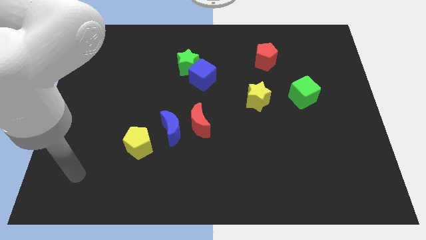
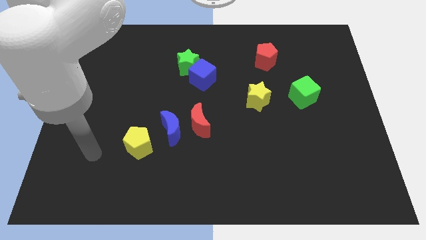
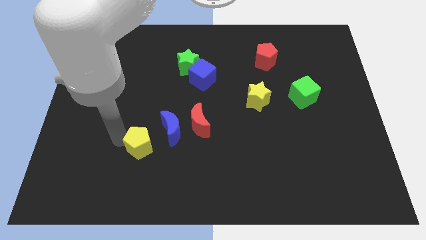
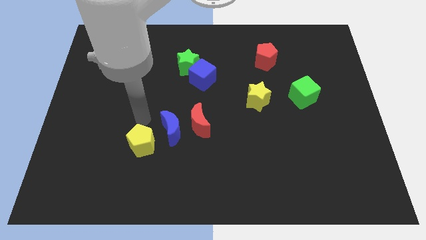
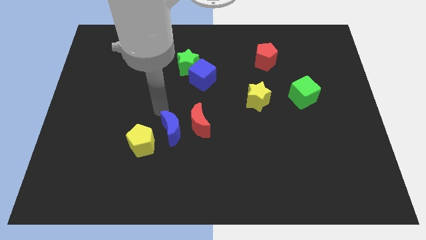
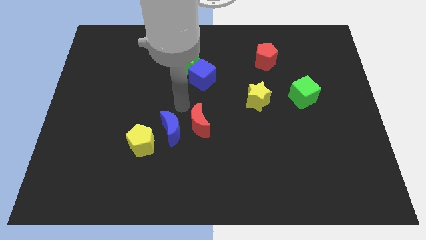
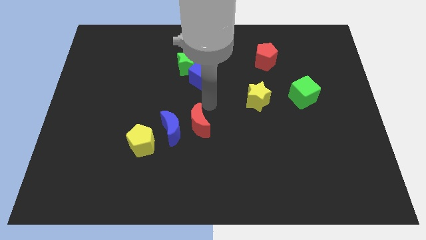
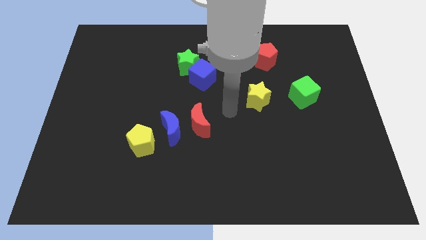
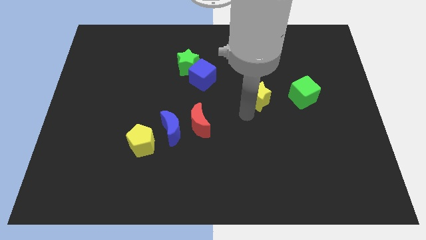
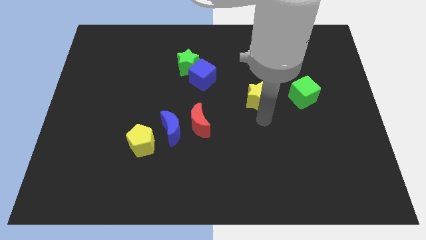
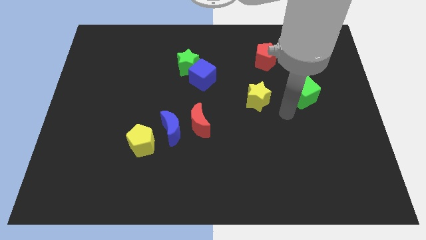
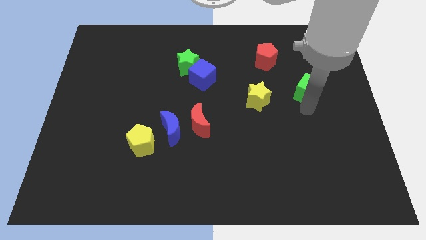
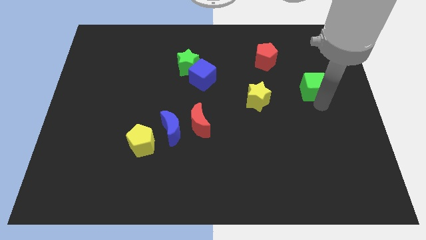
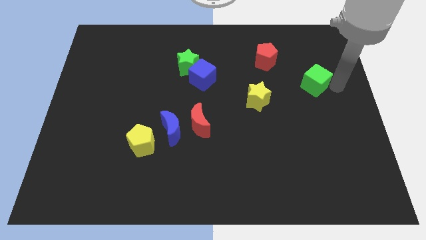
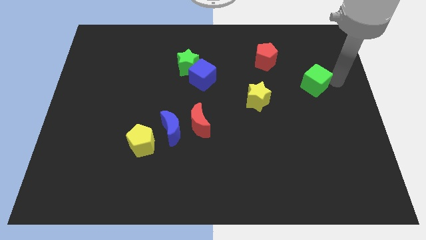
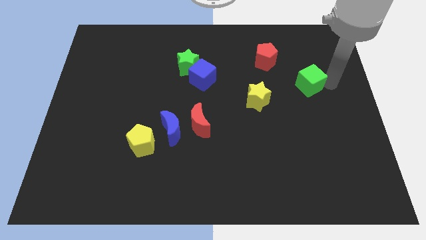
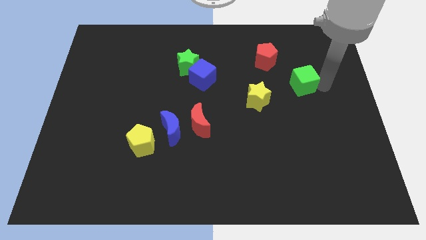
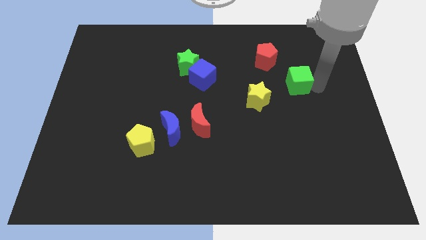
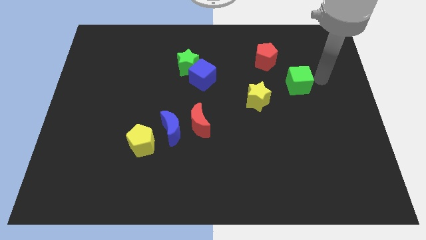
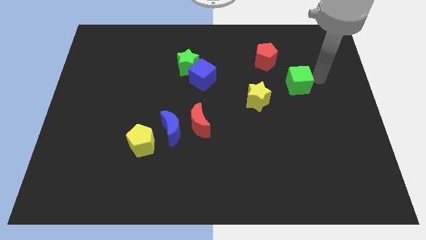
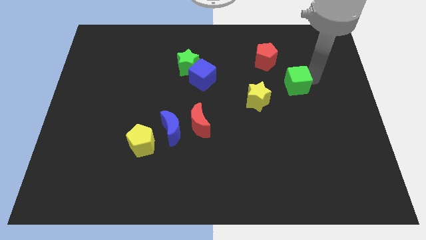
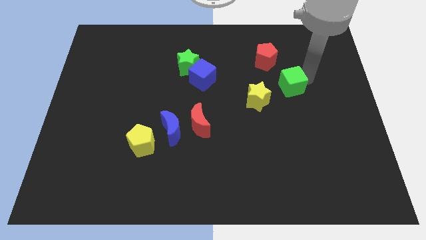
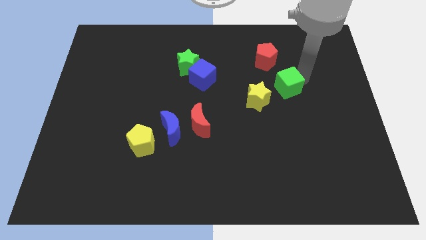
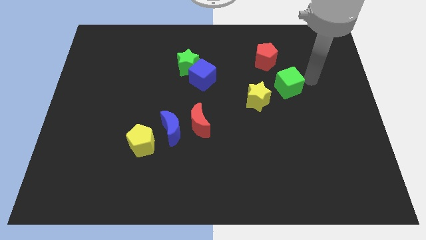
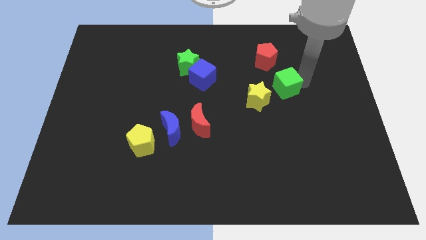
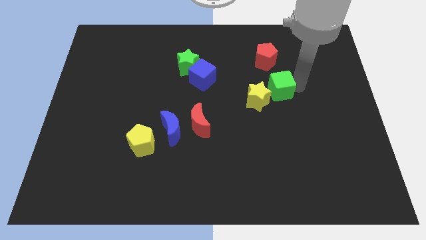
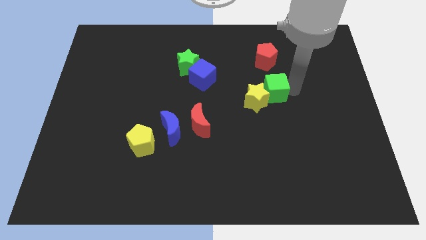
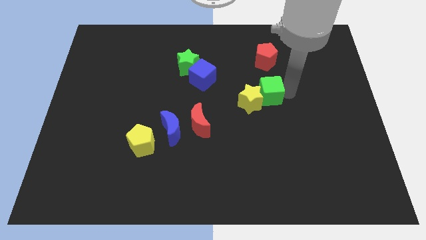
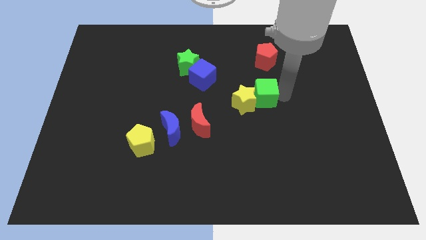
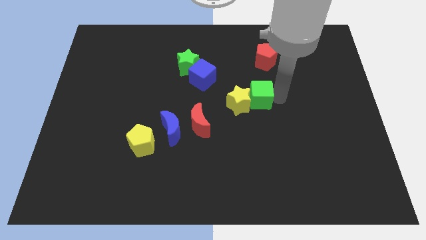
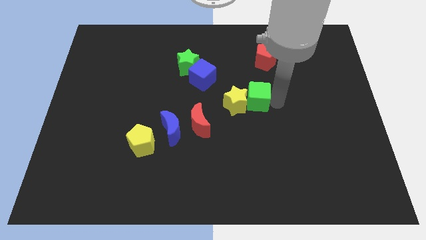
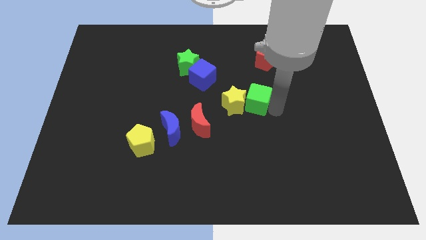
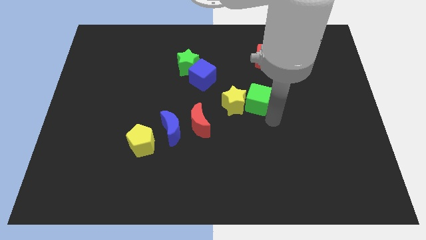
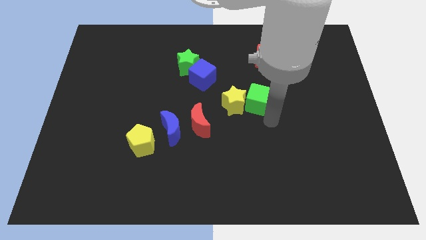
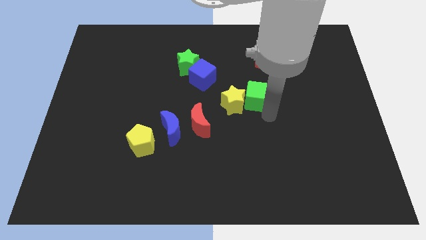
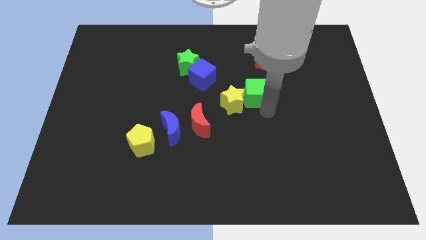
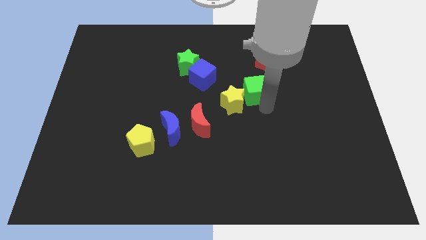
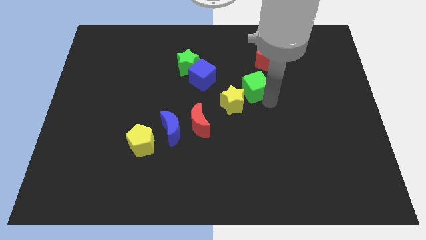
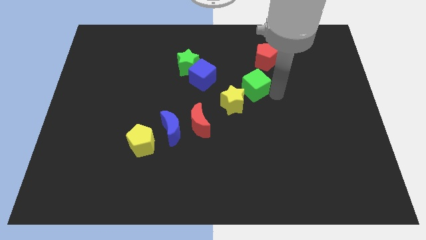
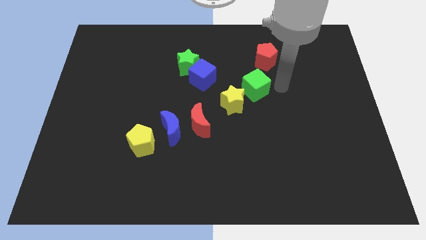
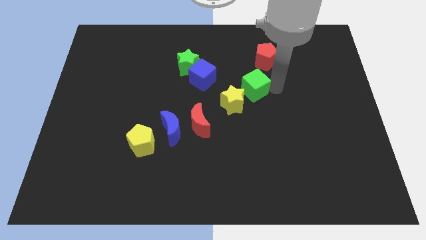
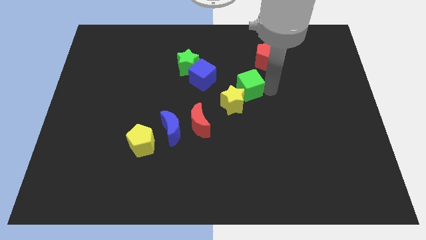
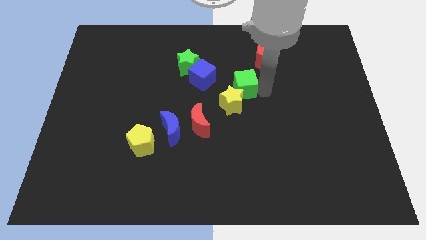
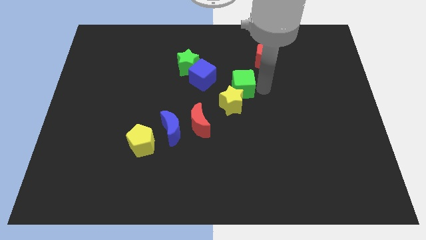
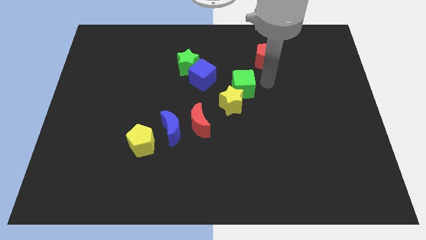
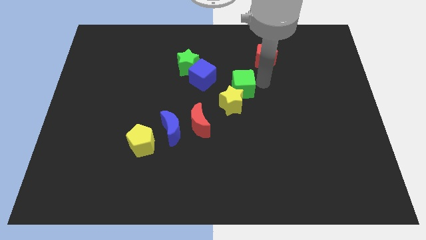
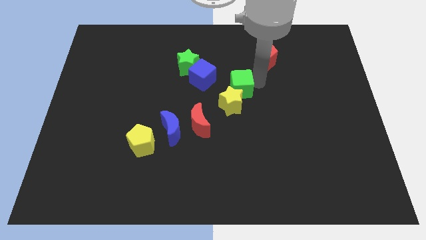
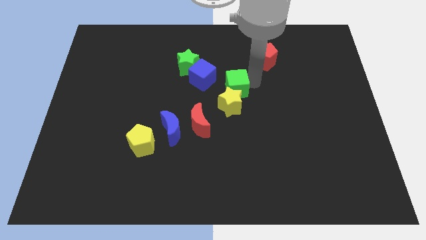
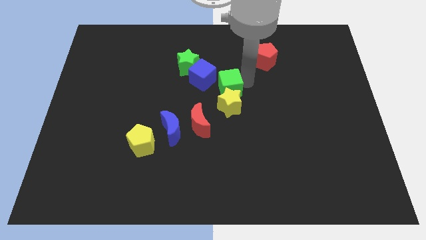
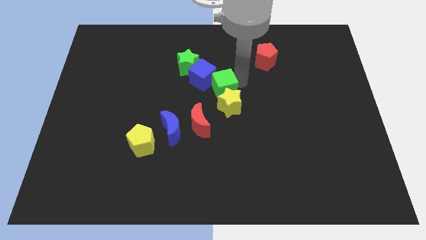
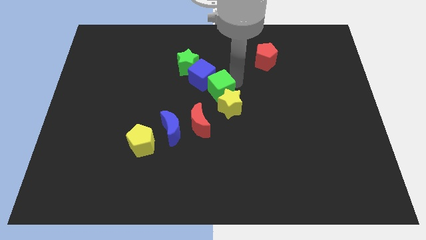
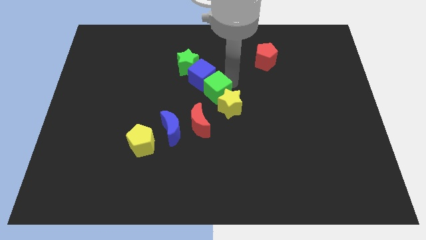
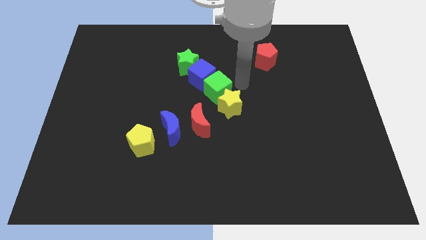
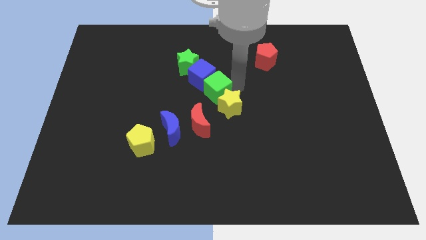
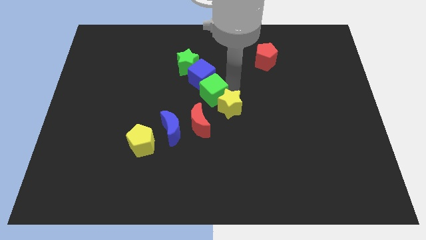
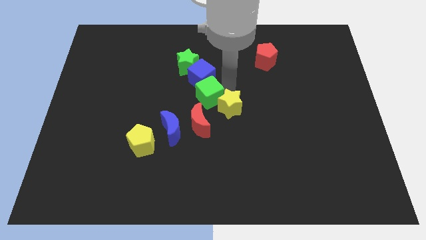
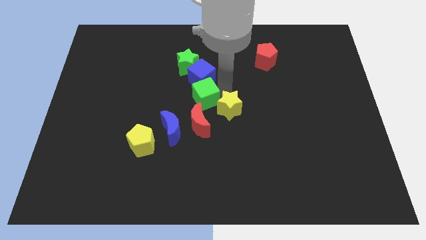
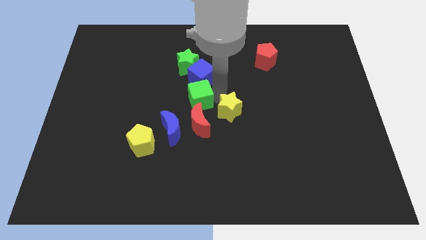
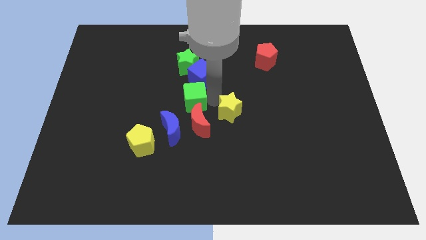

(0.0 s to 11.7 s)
slide the green cube to the top of the blue moon

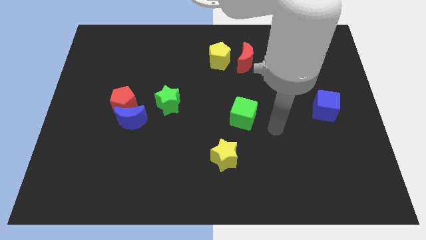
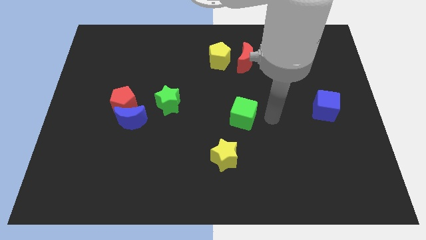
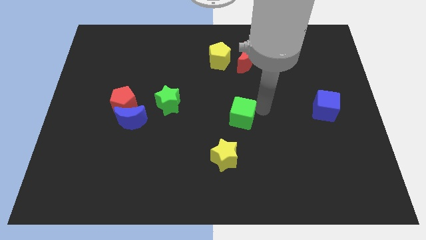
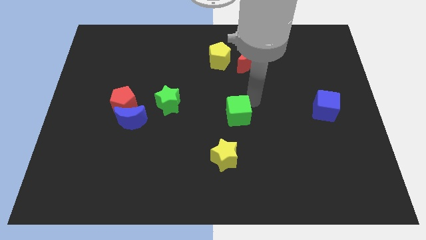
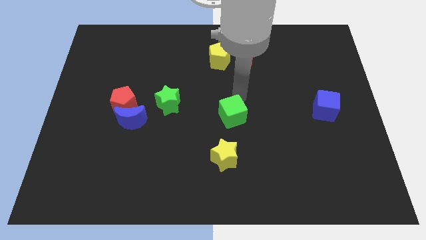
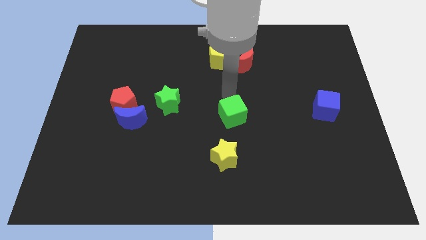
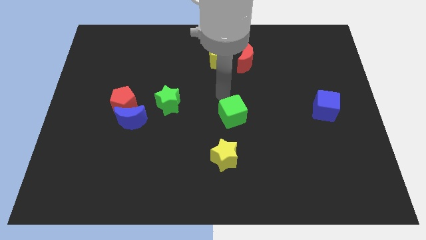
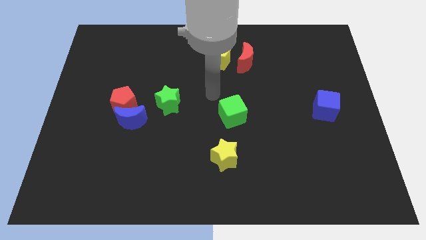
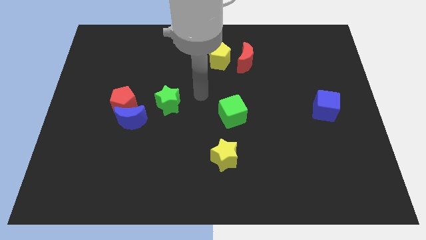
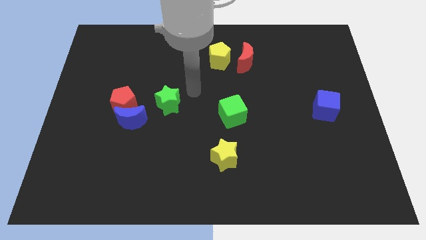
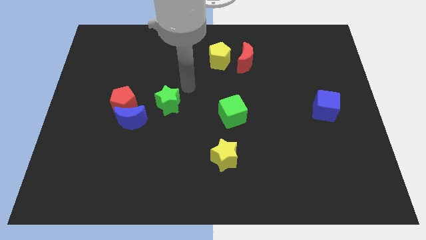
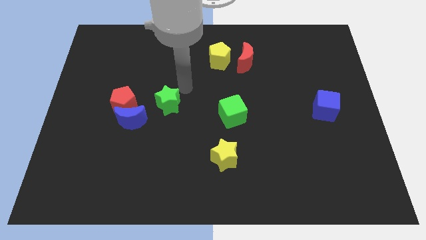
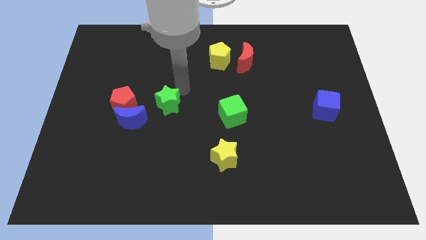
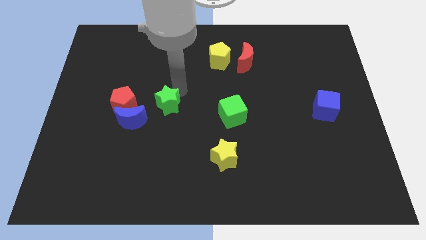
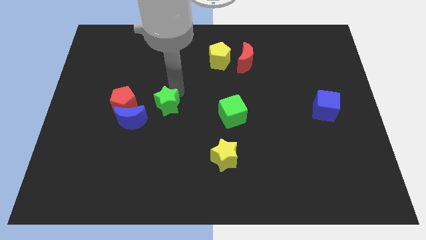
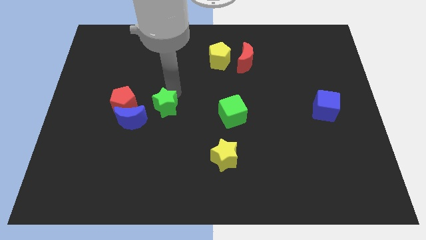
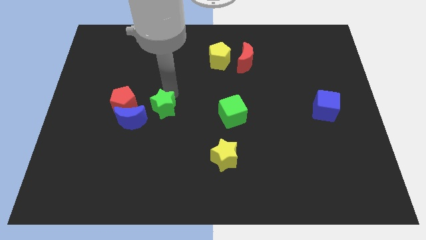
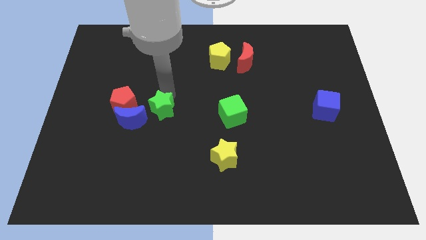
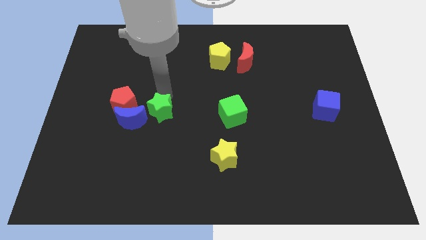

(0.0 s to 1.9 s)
push the green star diagonally down and to the right of the red pentagon
